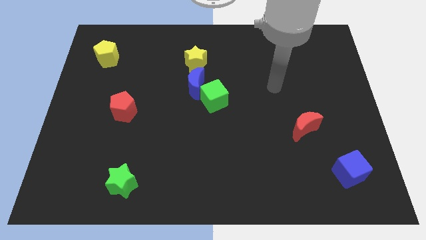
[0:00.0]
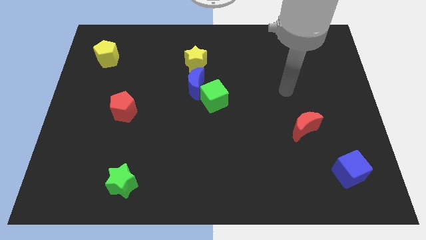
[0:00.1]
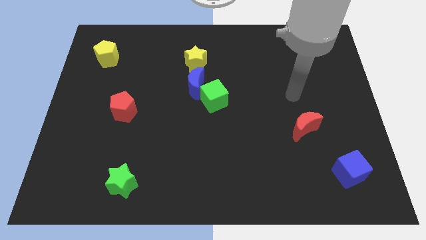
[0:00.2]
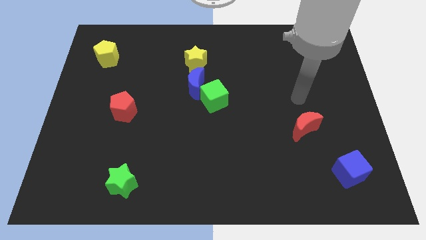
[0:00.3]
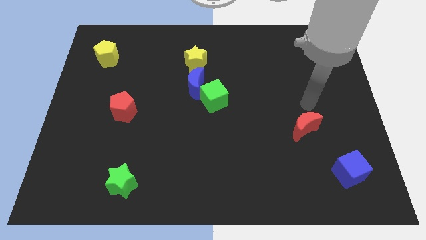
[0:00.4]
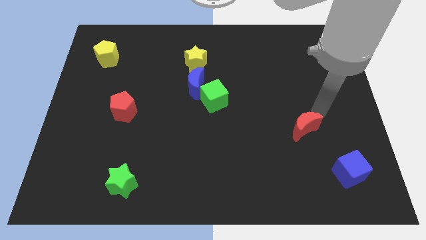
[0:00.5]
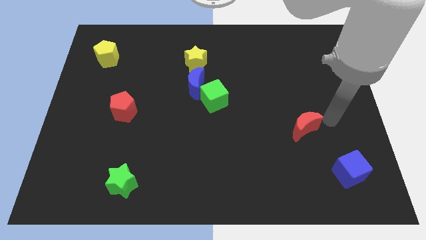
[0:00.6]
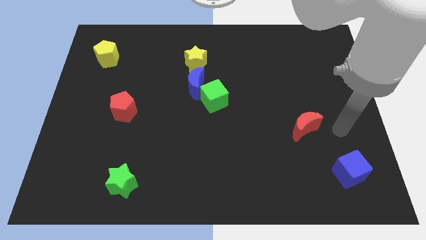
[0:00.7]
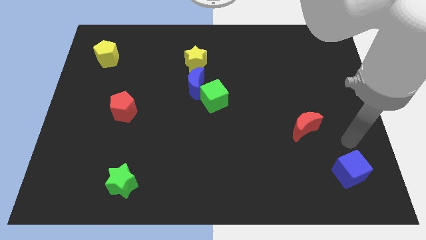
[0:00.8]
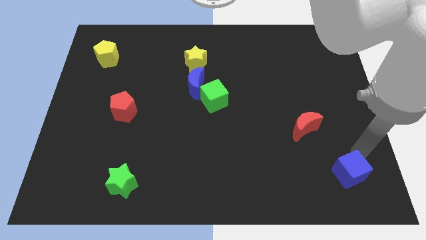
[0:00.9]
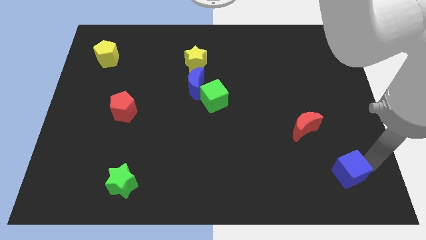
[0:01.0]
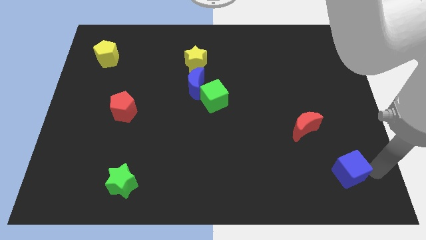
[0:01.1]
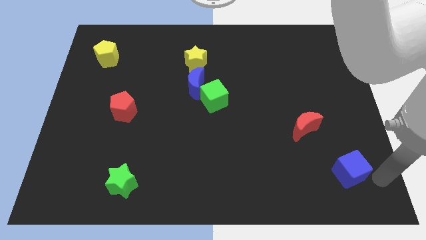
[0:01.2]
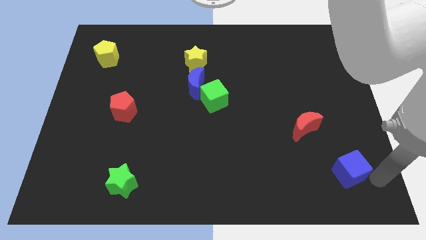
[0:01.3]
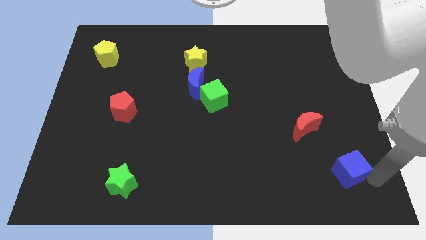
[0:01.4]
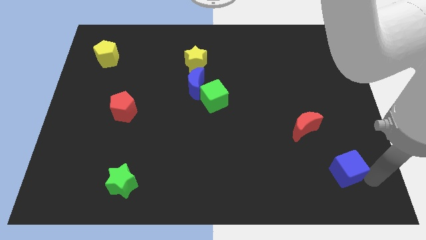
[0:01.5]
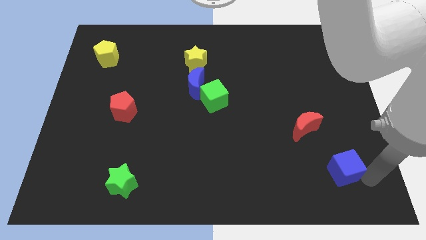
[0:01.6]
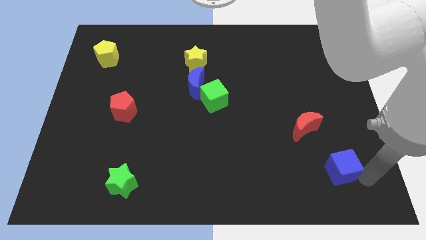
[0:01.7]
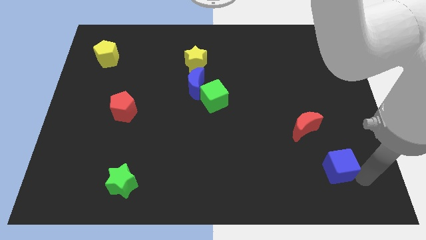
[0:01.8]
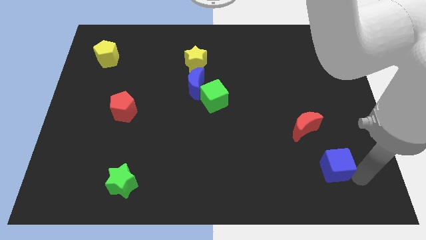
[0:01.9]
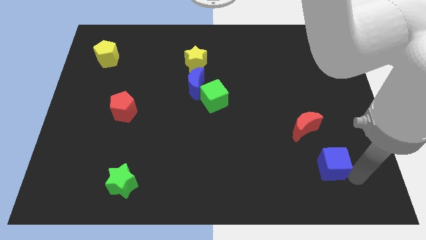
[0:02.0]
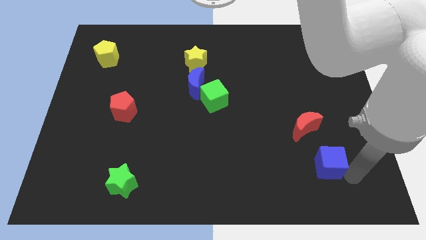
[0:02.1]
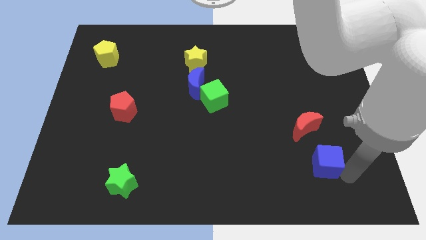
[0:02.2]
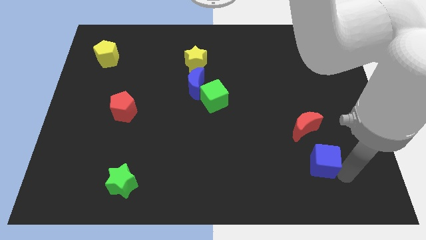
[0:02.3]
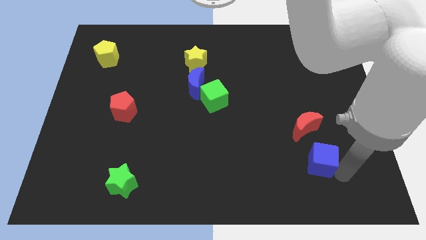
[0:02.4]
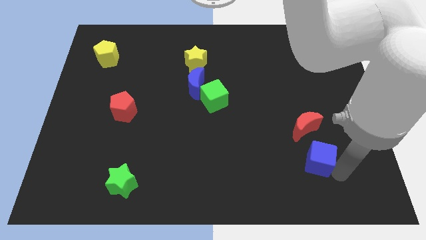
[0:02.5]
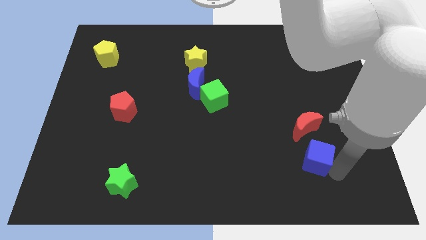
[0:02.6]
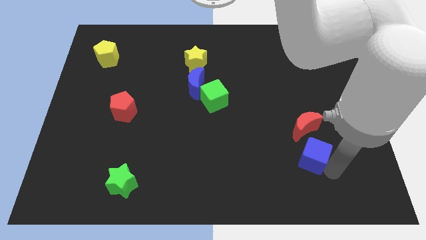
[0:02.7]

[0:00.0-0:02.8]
move the blue cube up and left slightly

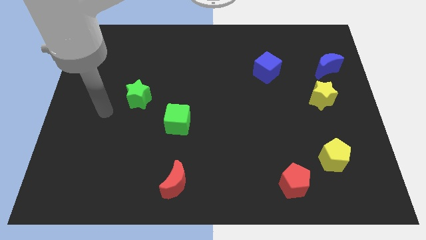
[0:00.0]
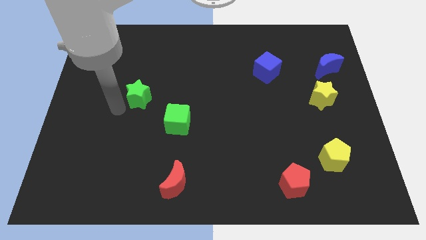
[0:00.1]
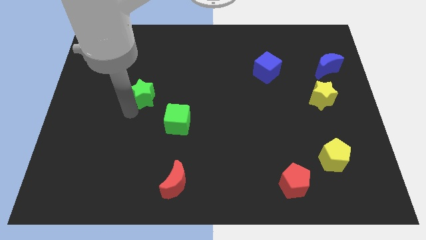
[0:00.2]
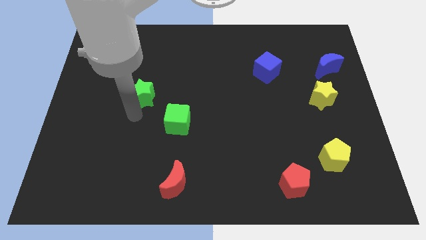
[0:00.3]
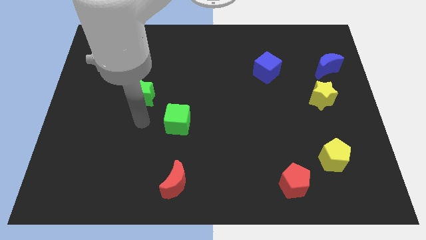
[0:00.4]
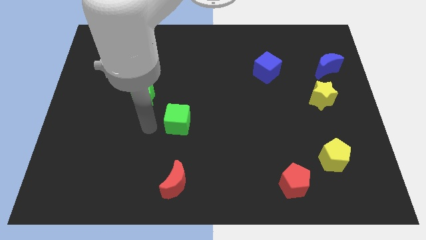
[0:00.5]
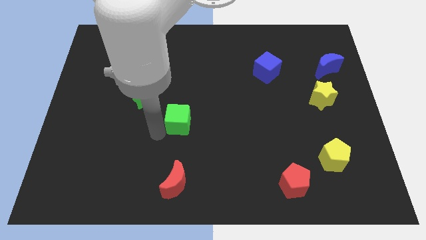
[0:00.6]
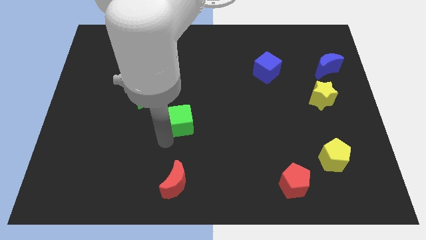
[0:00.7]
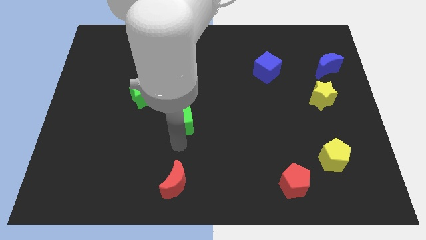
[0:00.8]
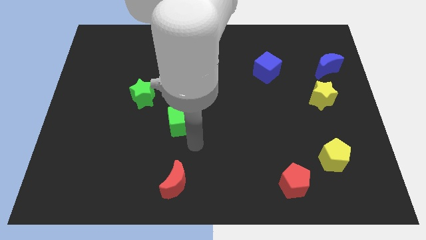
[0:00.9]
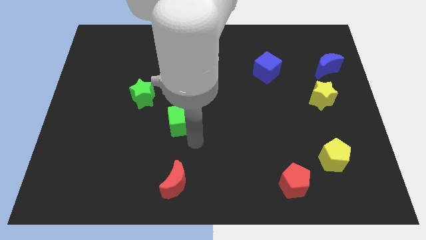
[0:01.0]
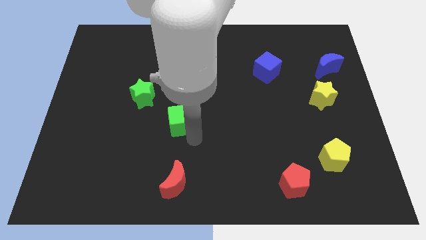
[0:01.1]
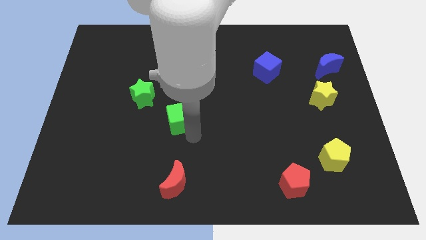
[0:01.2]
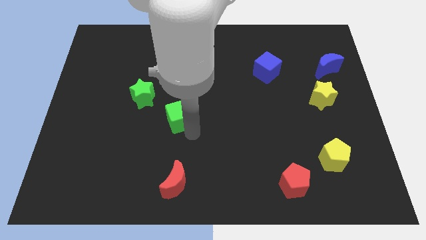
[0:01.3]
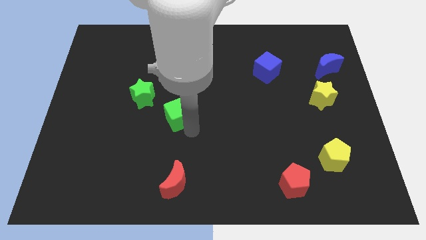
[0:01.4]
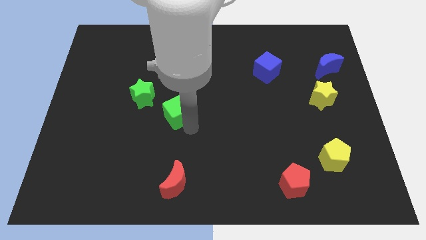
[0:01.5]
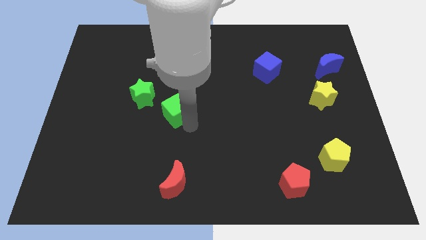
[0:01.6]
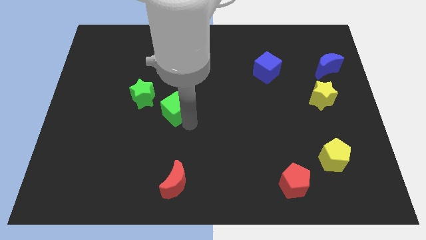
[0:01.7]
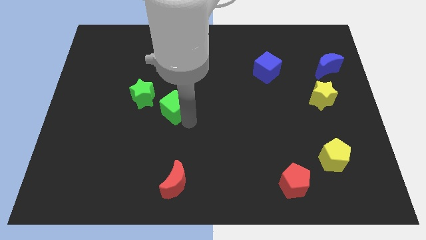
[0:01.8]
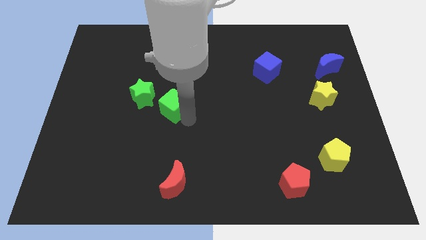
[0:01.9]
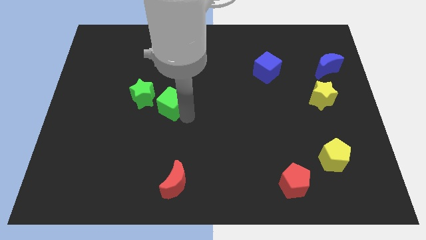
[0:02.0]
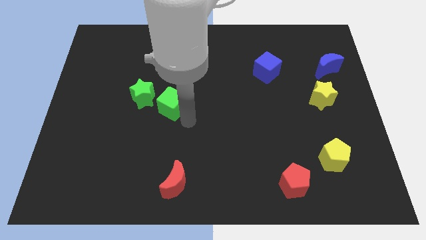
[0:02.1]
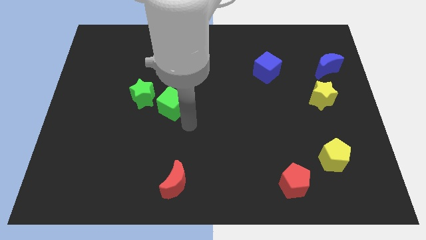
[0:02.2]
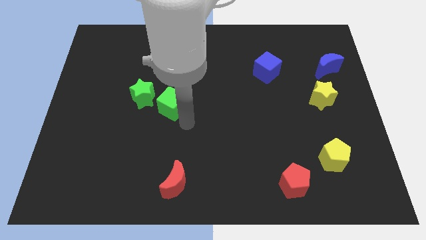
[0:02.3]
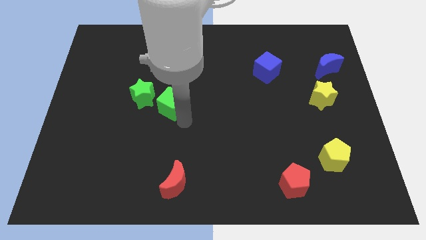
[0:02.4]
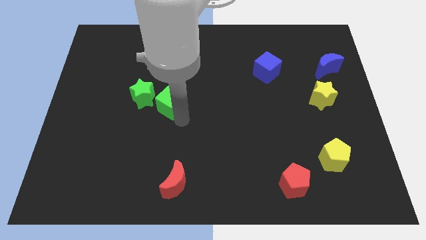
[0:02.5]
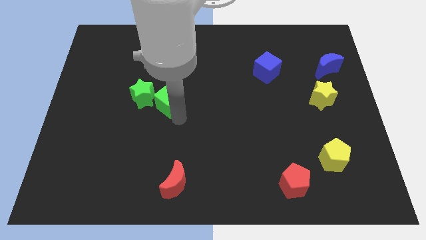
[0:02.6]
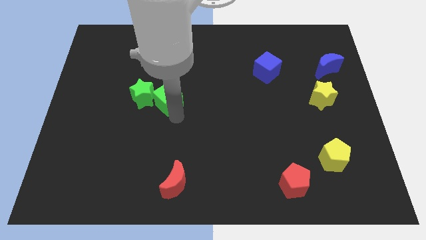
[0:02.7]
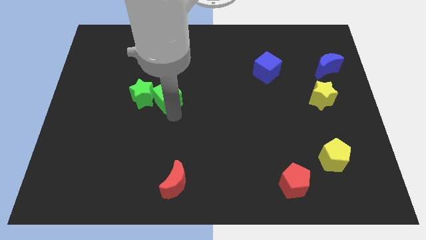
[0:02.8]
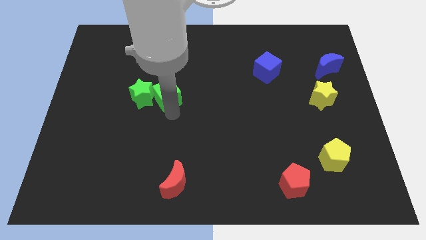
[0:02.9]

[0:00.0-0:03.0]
push the green cube up and left slightly

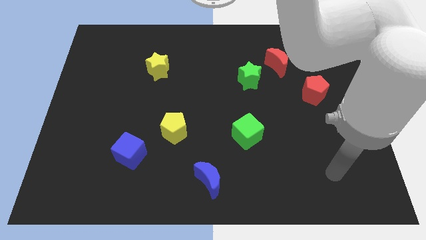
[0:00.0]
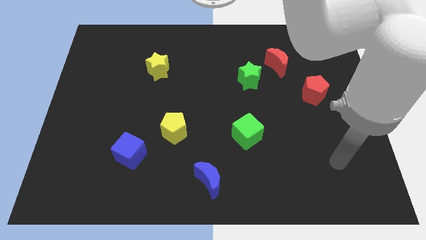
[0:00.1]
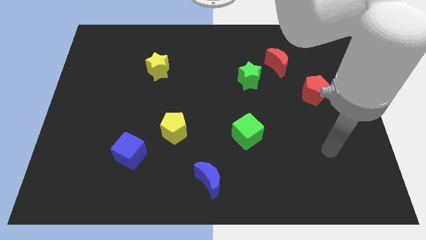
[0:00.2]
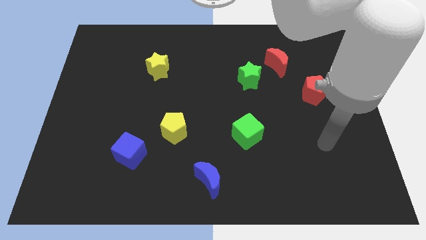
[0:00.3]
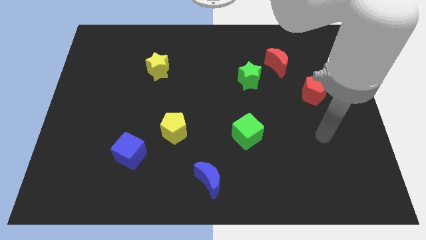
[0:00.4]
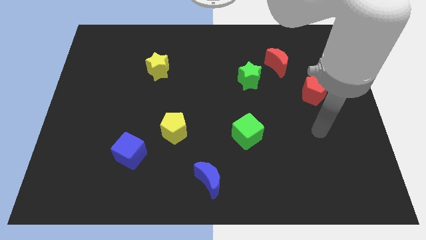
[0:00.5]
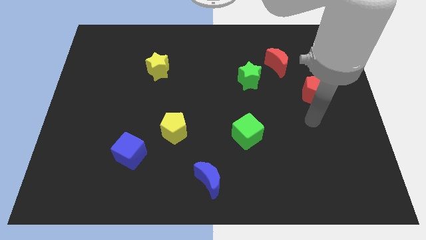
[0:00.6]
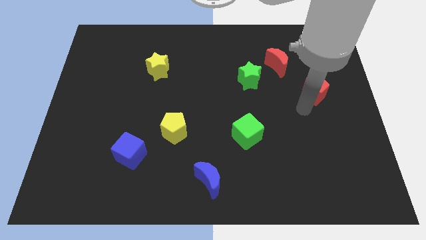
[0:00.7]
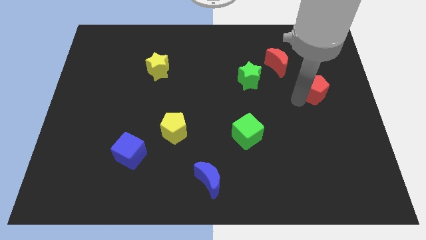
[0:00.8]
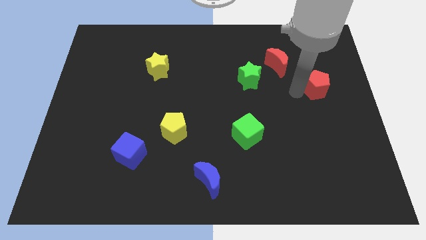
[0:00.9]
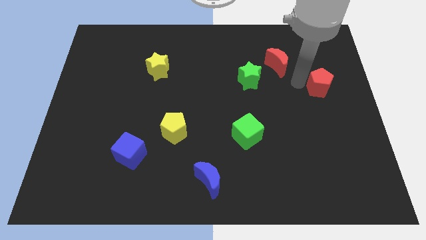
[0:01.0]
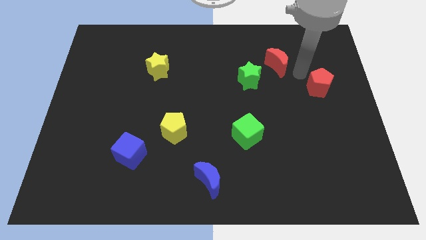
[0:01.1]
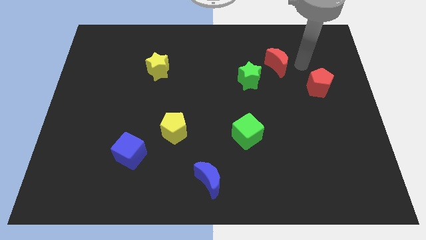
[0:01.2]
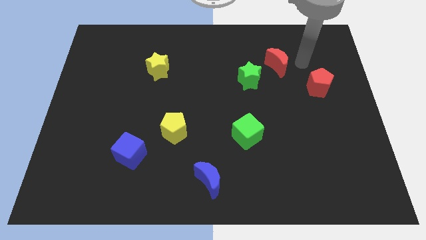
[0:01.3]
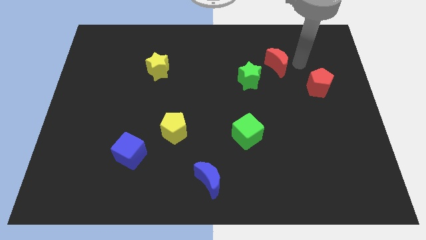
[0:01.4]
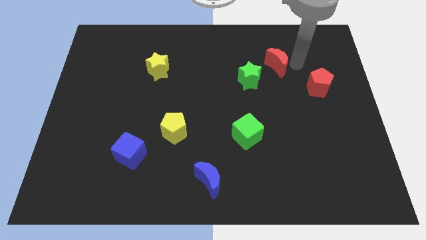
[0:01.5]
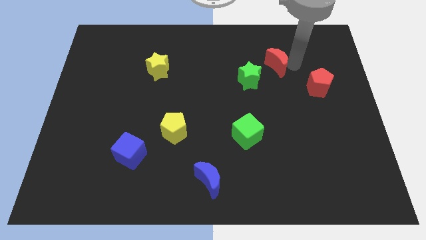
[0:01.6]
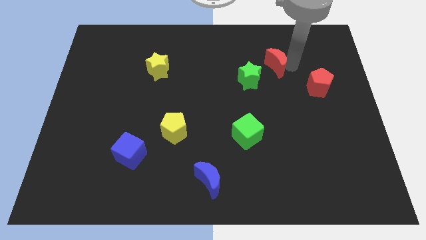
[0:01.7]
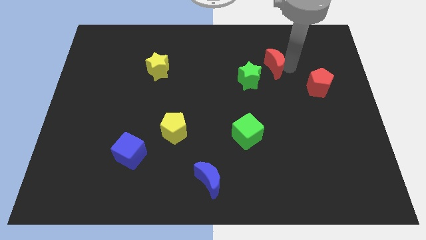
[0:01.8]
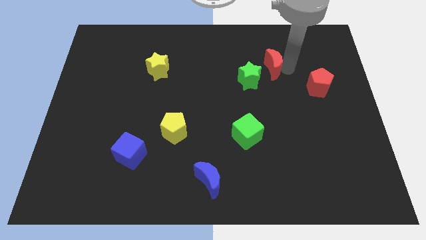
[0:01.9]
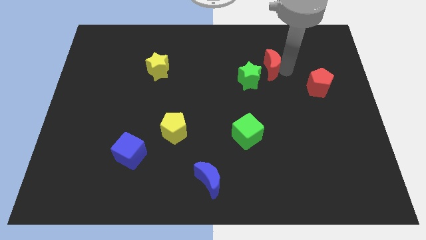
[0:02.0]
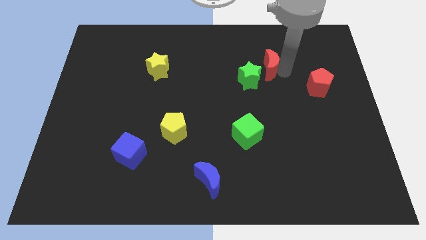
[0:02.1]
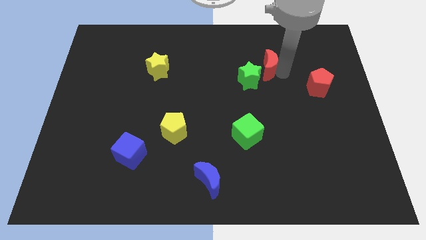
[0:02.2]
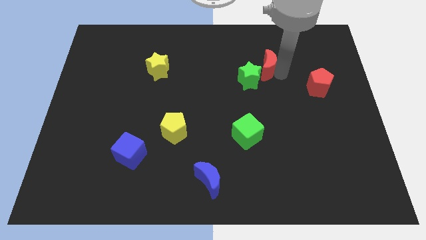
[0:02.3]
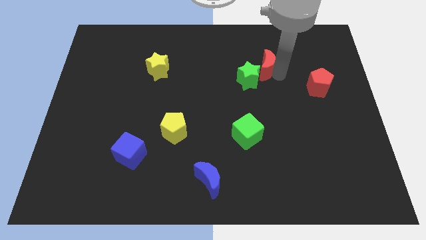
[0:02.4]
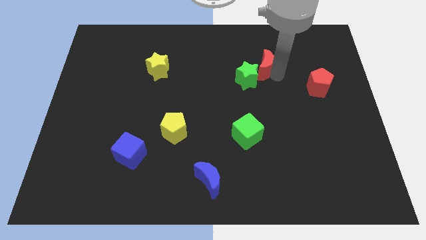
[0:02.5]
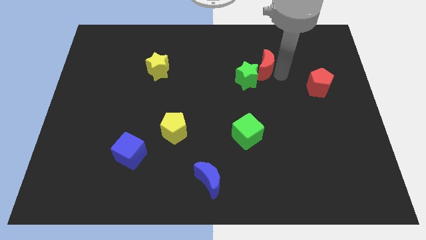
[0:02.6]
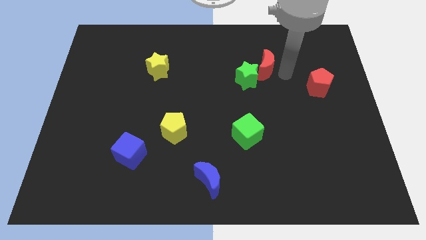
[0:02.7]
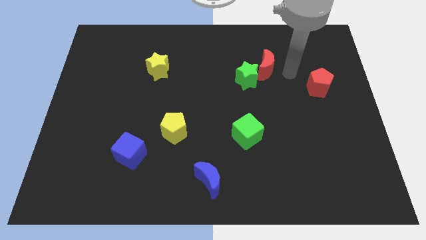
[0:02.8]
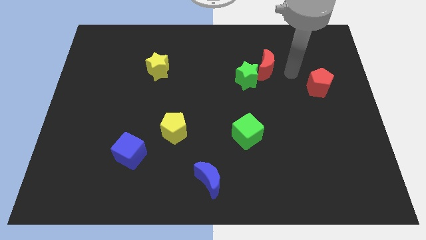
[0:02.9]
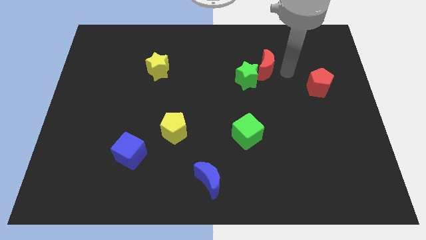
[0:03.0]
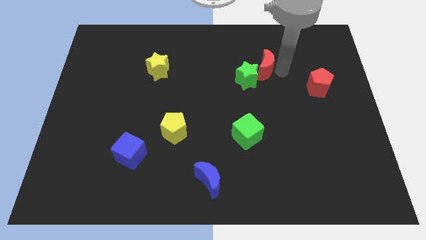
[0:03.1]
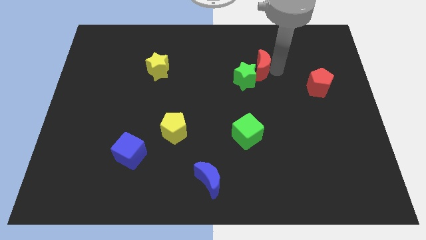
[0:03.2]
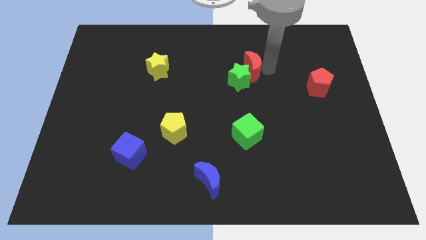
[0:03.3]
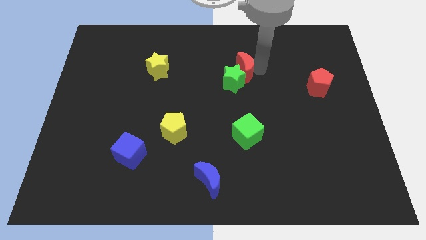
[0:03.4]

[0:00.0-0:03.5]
slightly push the red moon left
